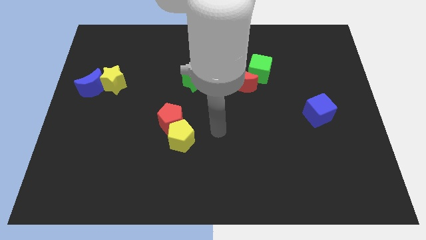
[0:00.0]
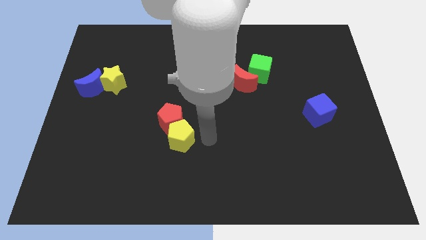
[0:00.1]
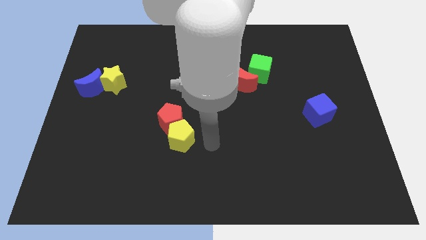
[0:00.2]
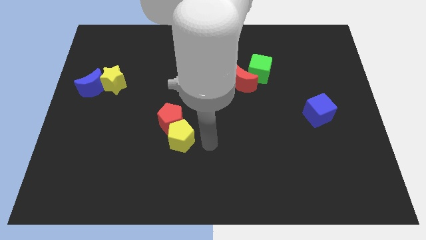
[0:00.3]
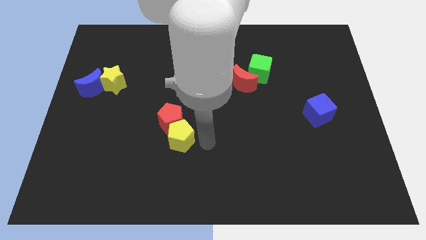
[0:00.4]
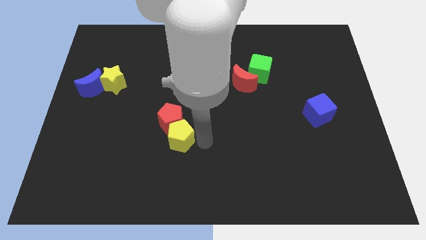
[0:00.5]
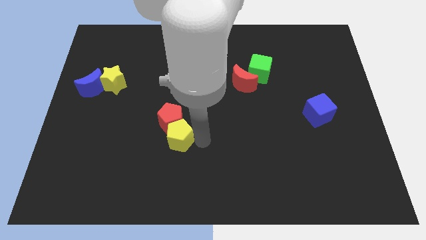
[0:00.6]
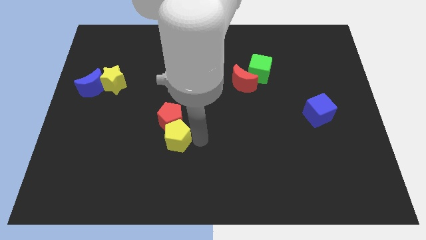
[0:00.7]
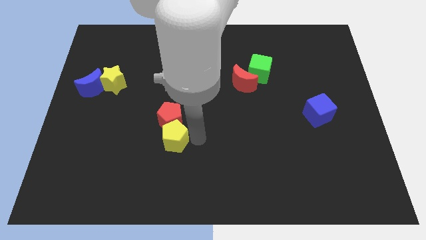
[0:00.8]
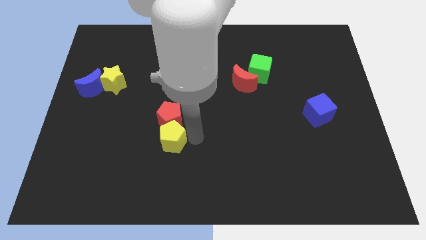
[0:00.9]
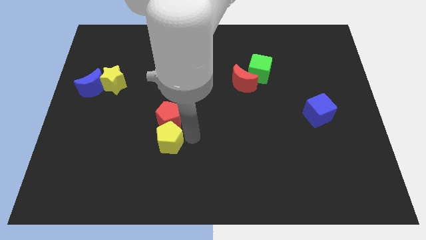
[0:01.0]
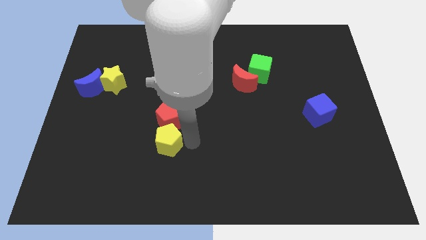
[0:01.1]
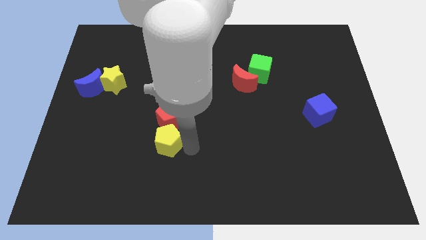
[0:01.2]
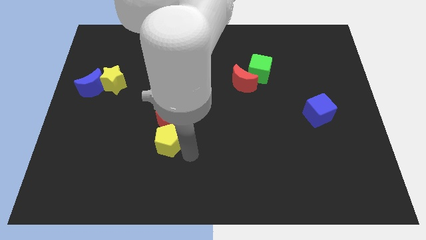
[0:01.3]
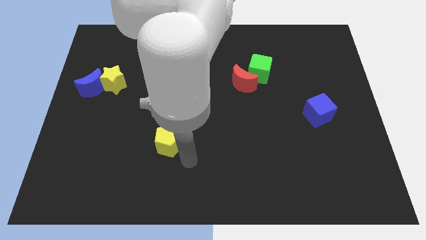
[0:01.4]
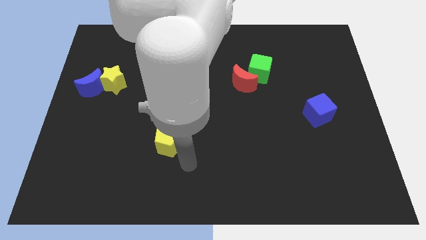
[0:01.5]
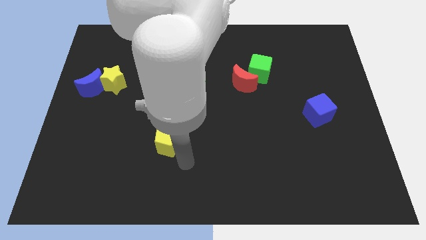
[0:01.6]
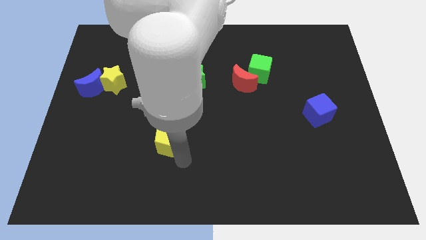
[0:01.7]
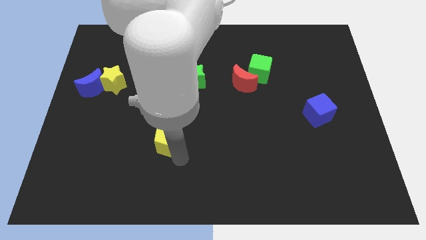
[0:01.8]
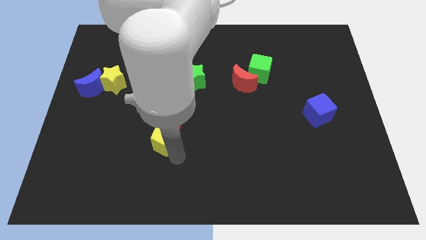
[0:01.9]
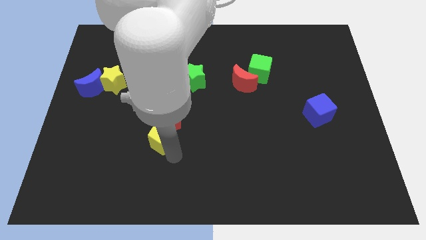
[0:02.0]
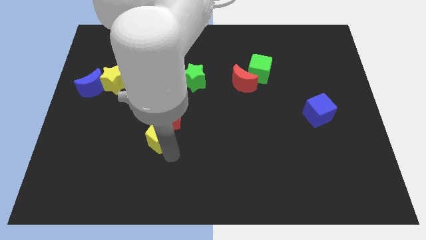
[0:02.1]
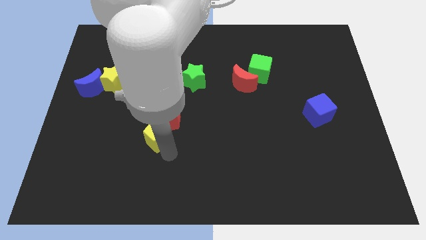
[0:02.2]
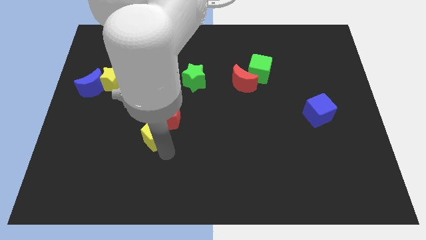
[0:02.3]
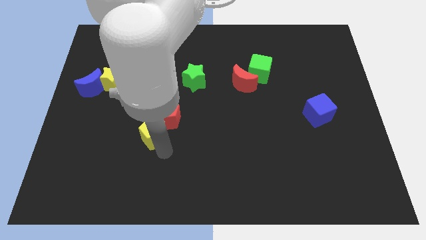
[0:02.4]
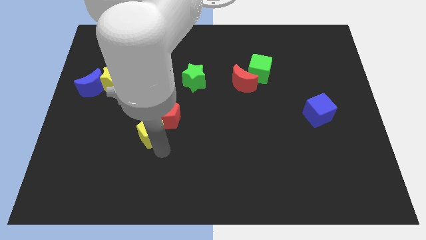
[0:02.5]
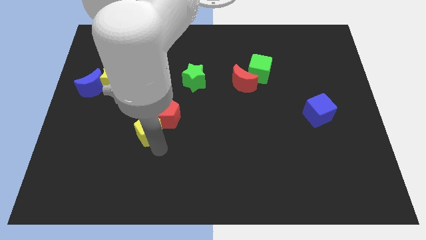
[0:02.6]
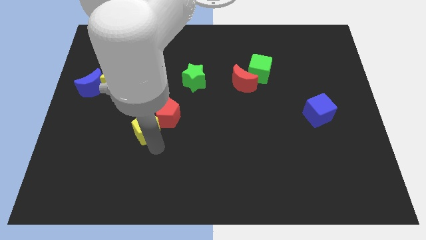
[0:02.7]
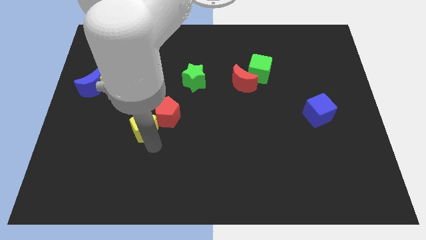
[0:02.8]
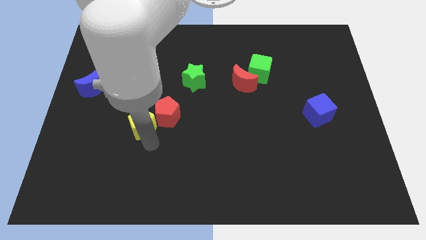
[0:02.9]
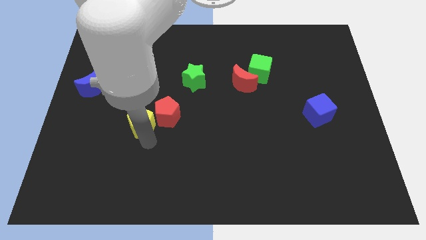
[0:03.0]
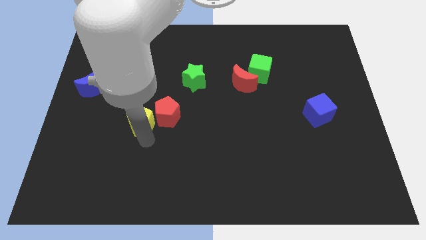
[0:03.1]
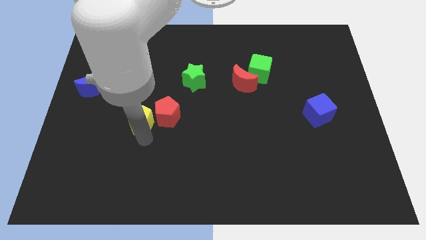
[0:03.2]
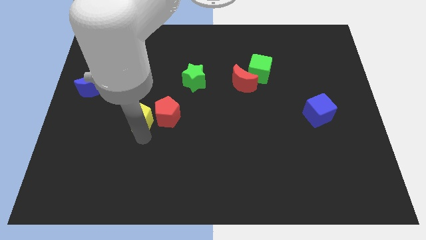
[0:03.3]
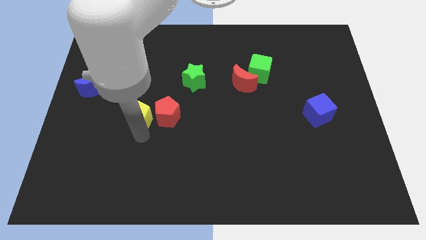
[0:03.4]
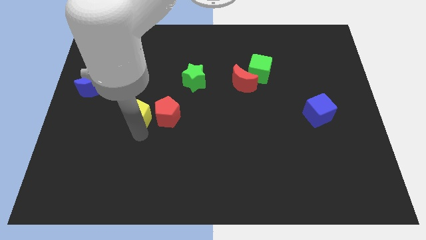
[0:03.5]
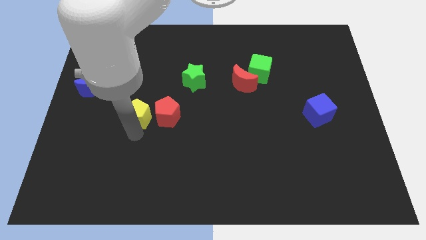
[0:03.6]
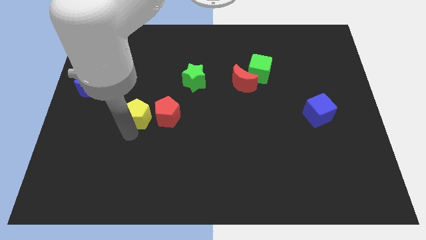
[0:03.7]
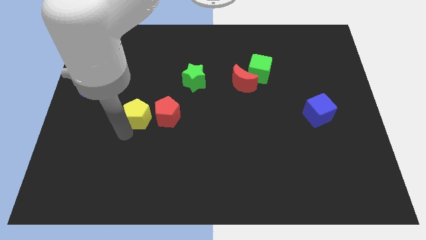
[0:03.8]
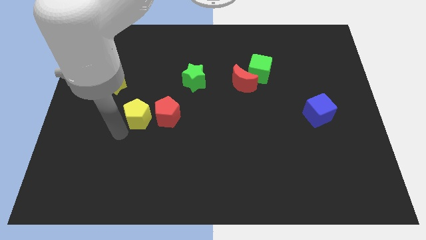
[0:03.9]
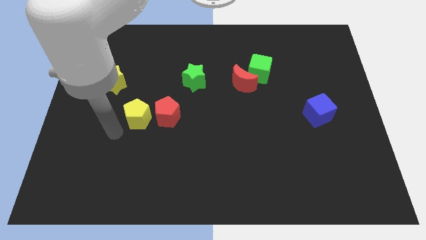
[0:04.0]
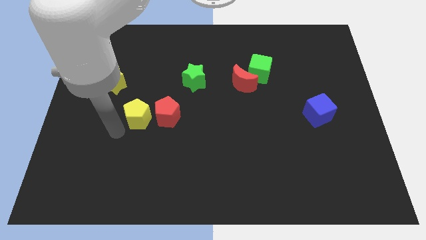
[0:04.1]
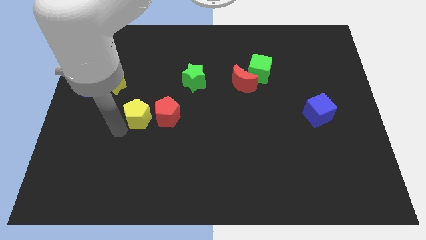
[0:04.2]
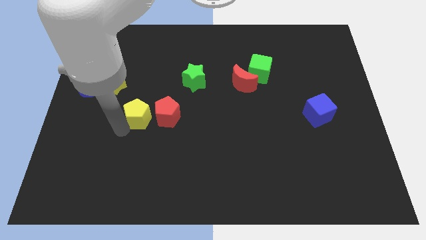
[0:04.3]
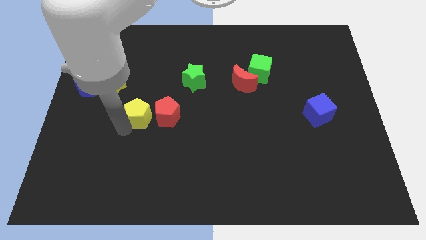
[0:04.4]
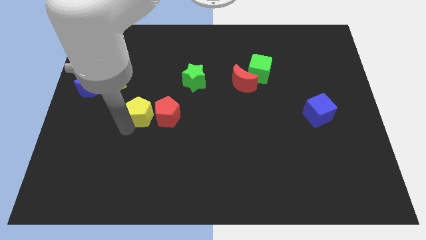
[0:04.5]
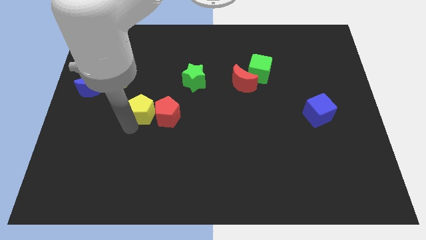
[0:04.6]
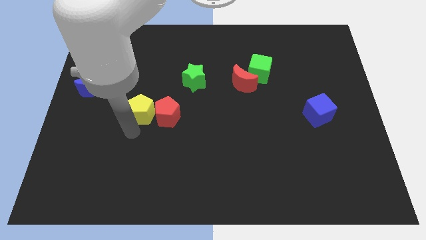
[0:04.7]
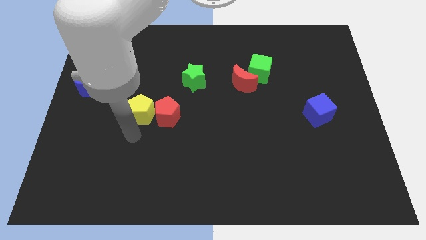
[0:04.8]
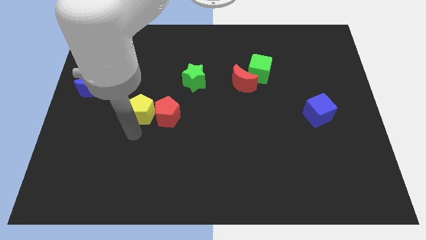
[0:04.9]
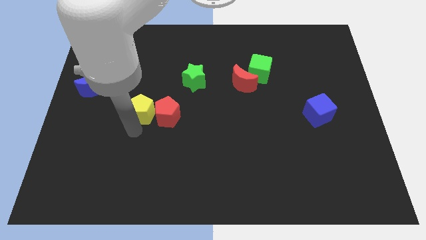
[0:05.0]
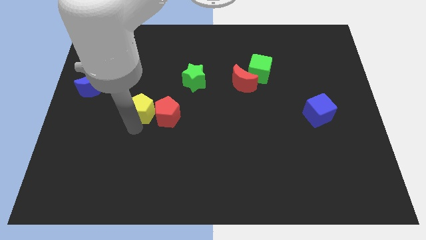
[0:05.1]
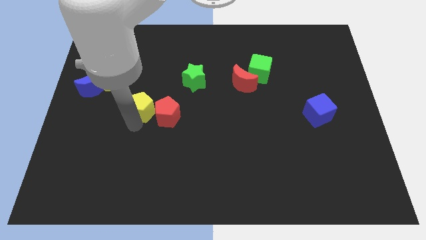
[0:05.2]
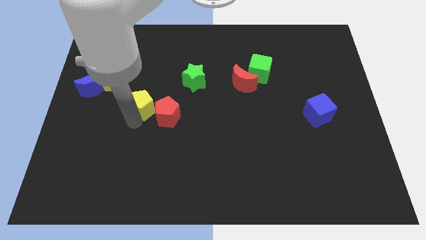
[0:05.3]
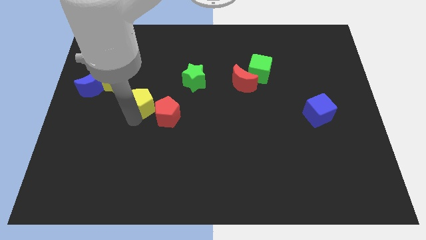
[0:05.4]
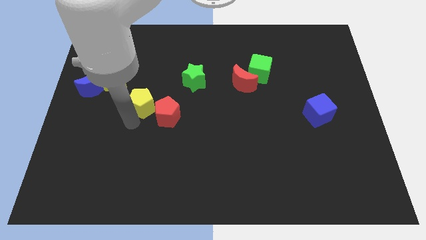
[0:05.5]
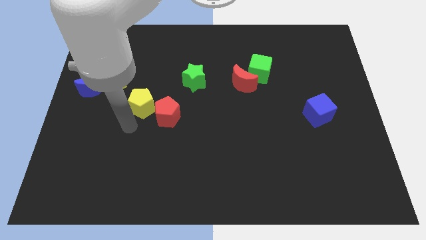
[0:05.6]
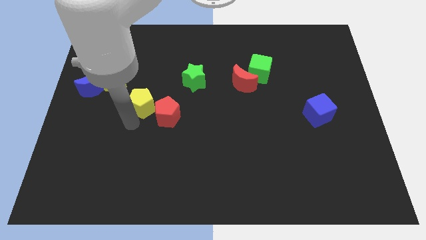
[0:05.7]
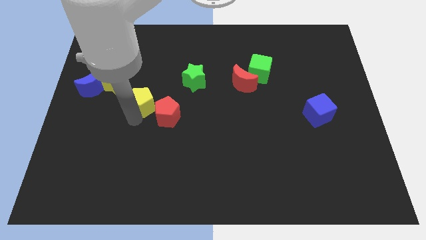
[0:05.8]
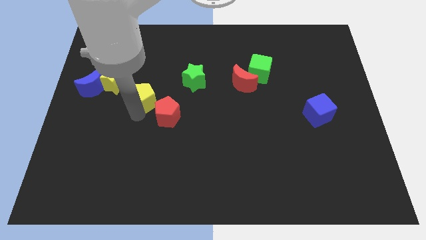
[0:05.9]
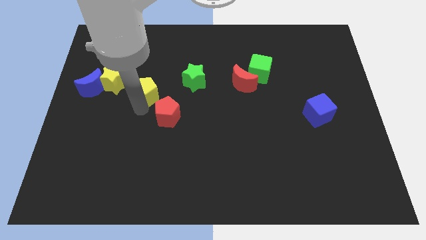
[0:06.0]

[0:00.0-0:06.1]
move the yellow pentagon left of the green star

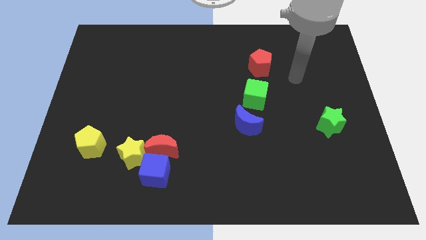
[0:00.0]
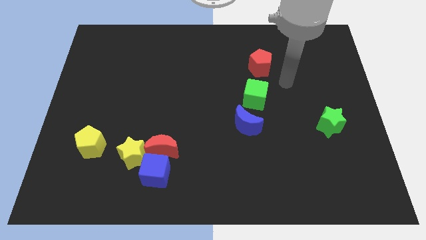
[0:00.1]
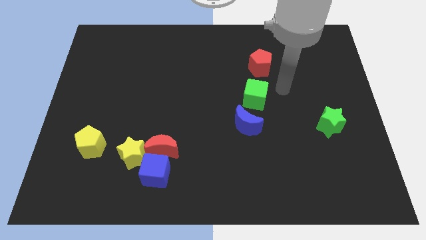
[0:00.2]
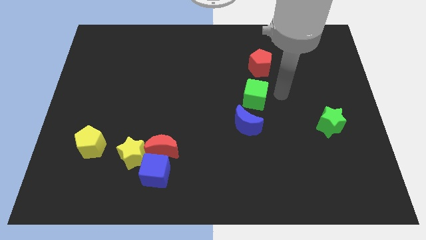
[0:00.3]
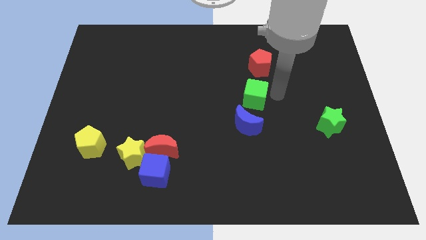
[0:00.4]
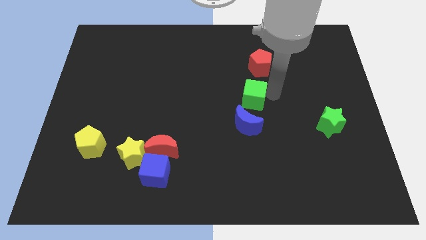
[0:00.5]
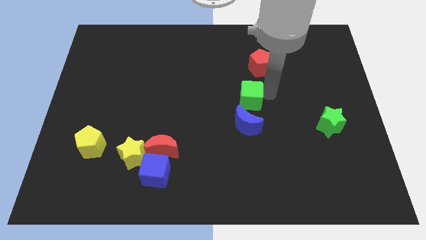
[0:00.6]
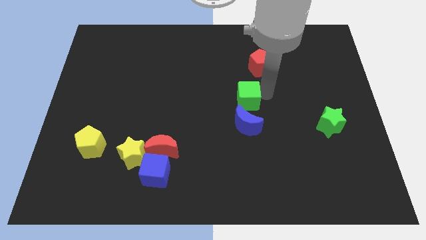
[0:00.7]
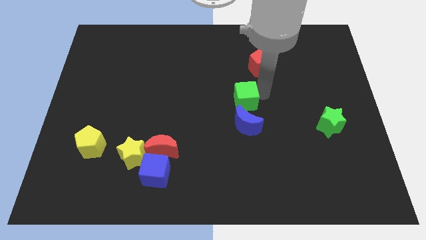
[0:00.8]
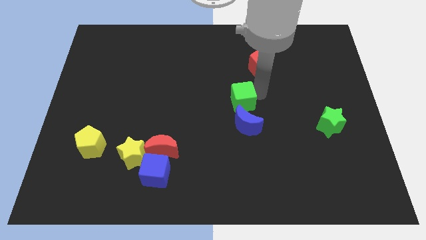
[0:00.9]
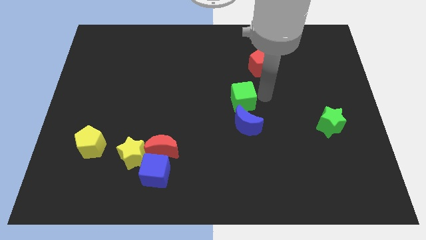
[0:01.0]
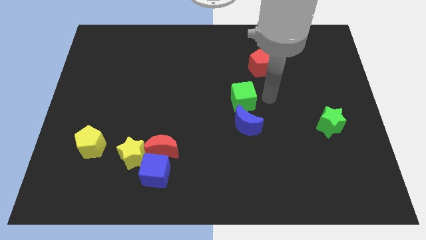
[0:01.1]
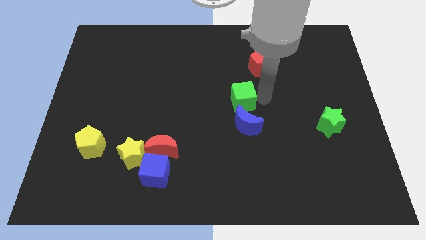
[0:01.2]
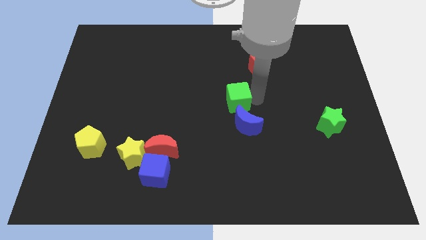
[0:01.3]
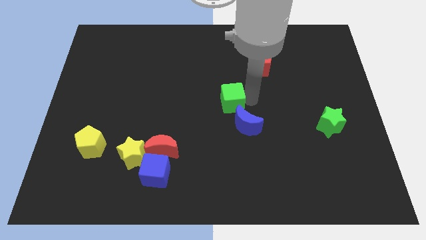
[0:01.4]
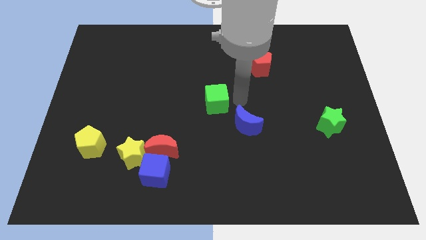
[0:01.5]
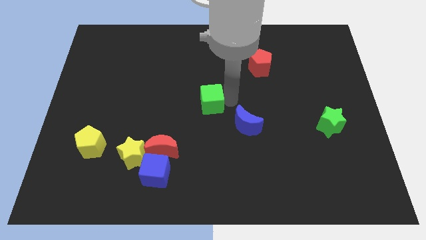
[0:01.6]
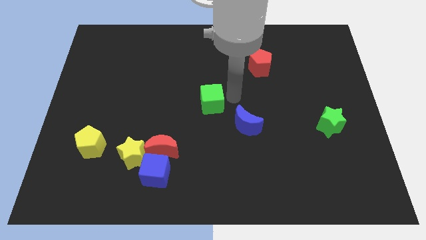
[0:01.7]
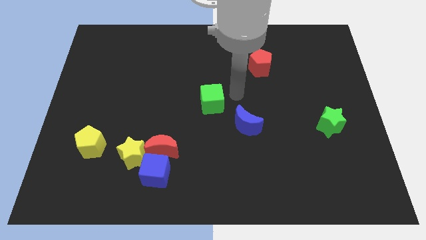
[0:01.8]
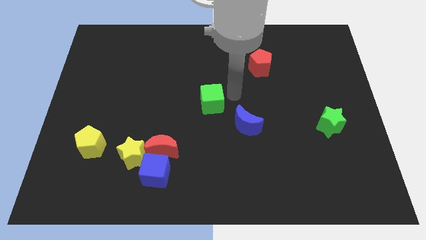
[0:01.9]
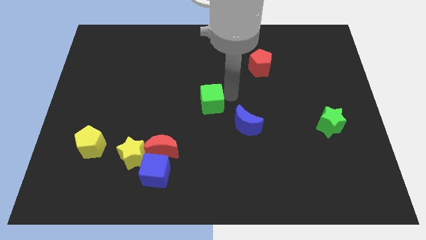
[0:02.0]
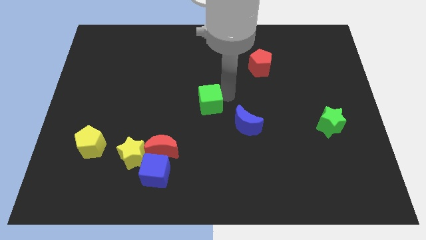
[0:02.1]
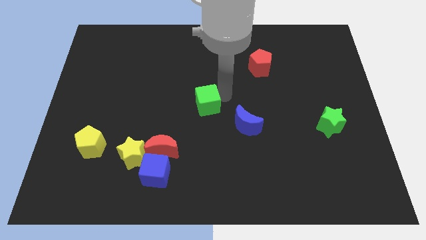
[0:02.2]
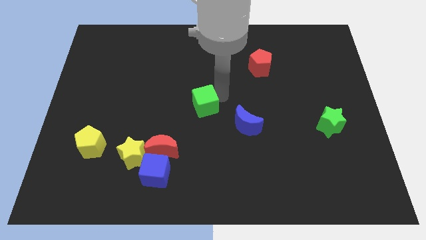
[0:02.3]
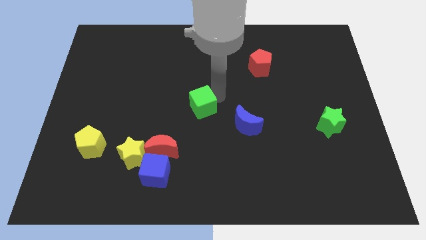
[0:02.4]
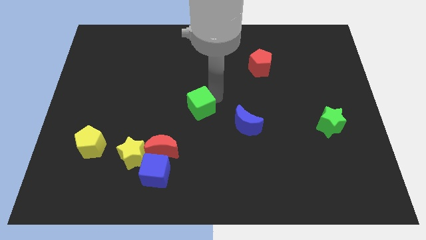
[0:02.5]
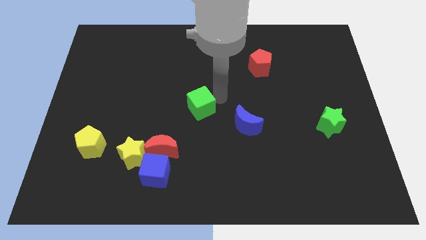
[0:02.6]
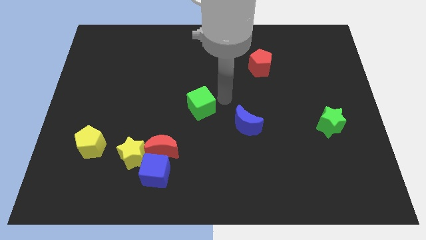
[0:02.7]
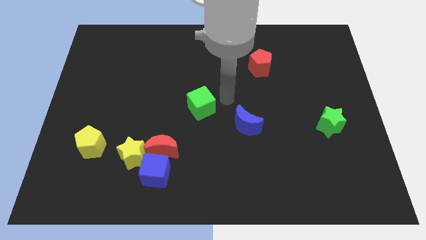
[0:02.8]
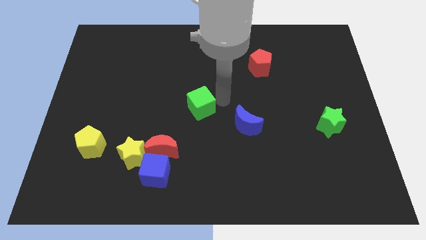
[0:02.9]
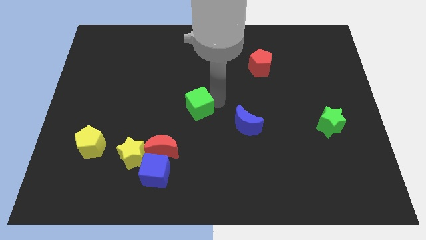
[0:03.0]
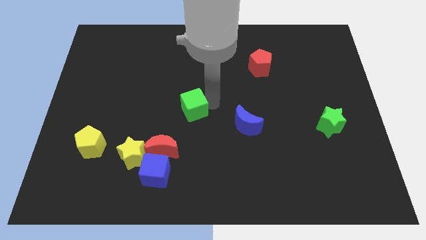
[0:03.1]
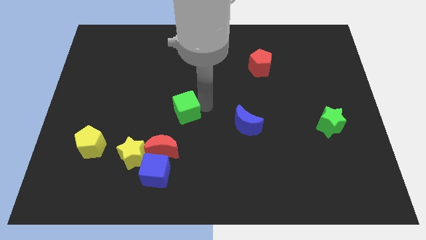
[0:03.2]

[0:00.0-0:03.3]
put the green cube to the top of the red moon
